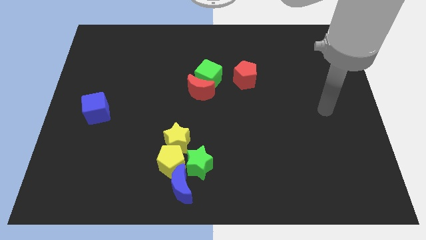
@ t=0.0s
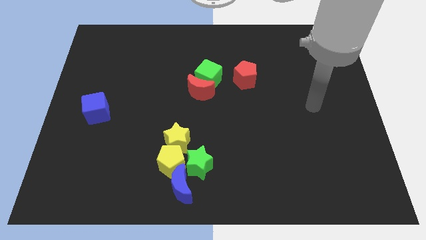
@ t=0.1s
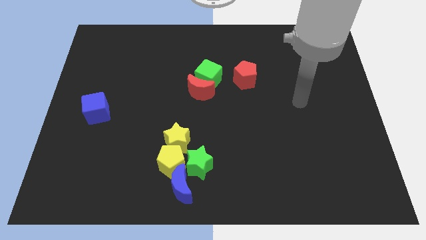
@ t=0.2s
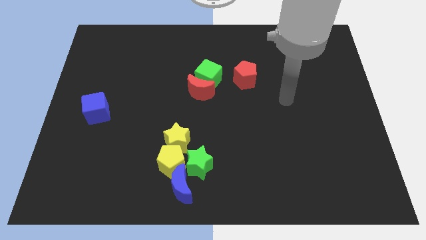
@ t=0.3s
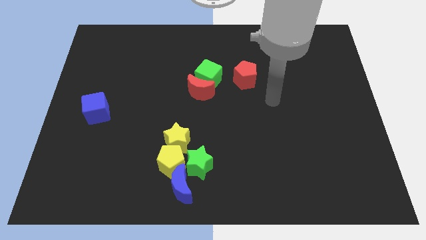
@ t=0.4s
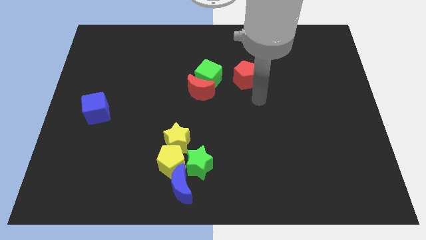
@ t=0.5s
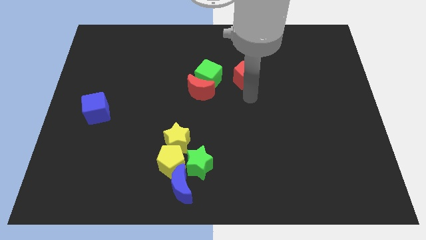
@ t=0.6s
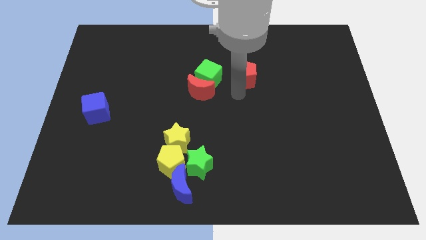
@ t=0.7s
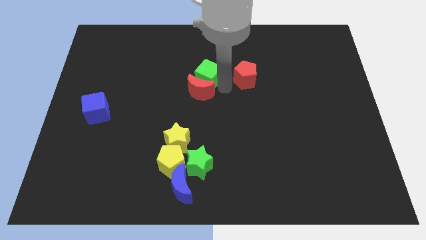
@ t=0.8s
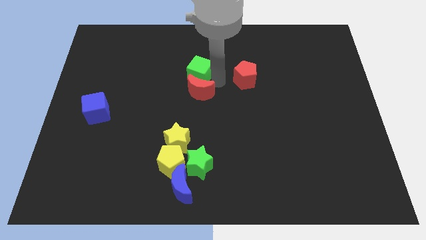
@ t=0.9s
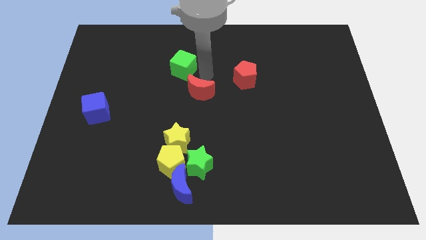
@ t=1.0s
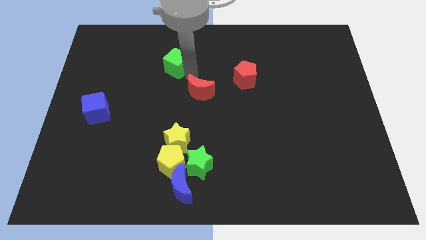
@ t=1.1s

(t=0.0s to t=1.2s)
separate the red moon from the green cube

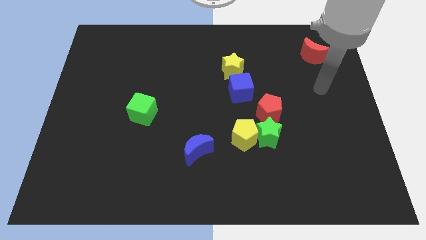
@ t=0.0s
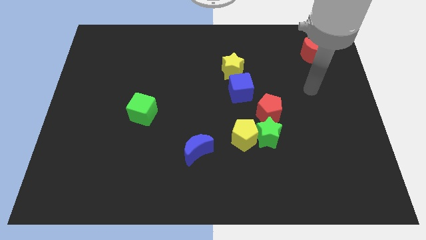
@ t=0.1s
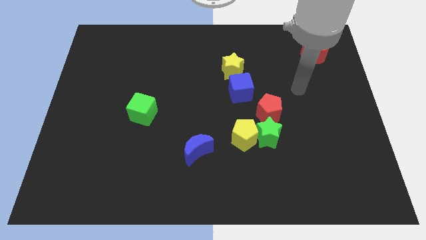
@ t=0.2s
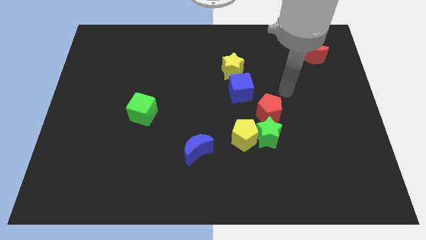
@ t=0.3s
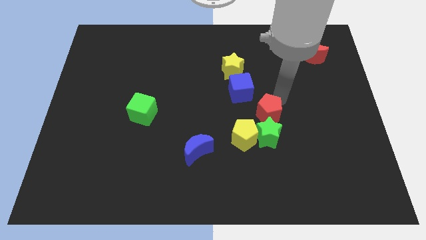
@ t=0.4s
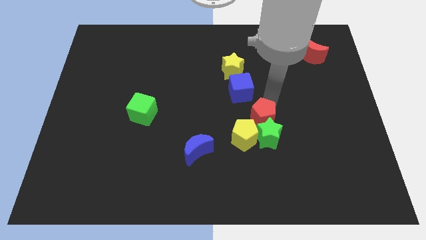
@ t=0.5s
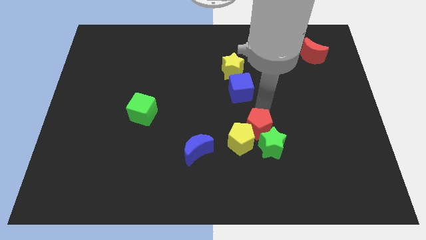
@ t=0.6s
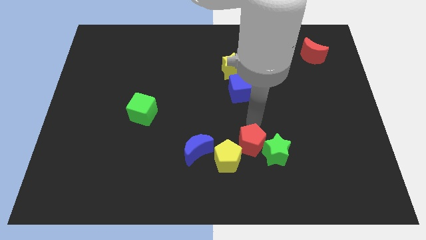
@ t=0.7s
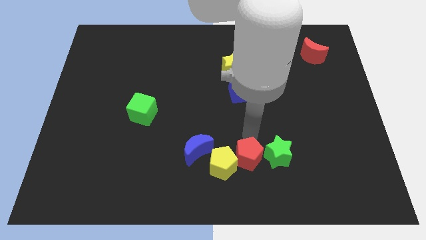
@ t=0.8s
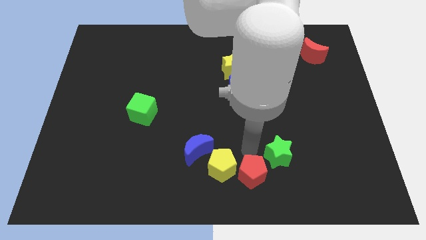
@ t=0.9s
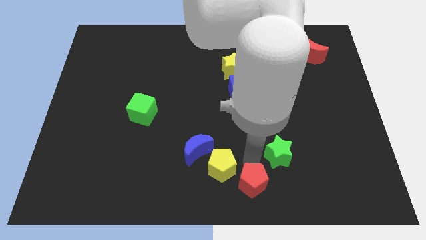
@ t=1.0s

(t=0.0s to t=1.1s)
pull the green star apart from the yellow pentagon and red pentagon

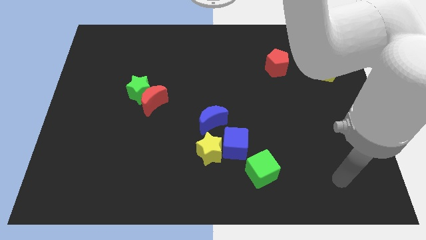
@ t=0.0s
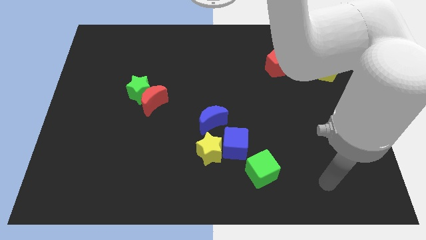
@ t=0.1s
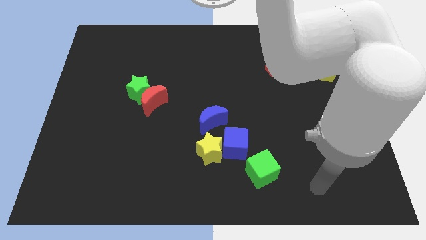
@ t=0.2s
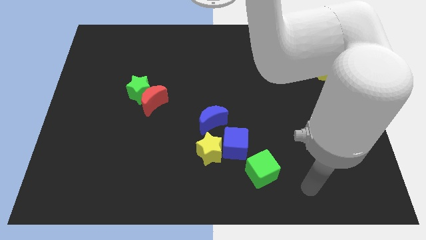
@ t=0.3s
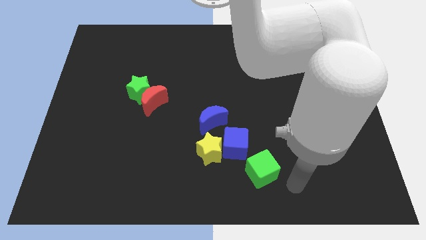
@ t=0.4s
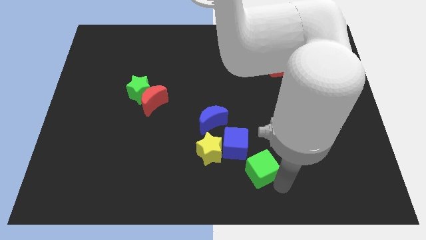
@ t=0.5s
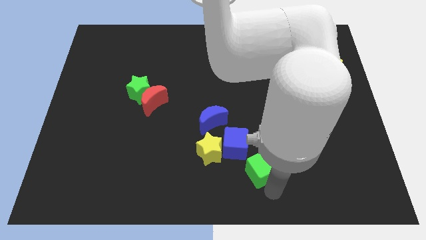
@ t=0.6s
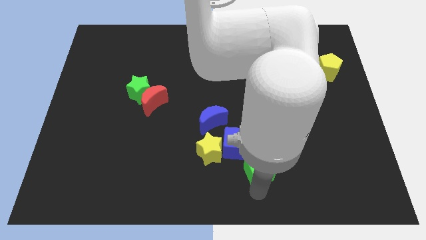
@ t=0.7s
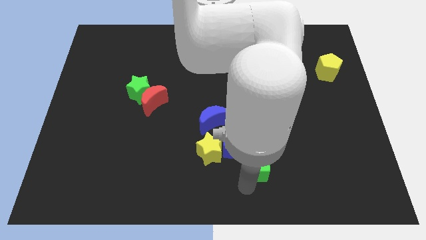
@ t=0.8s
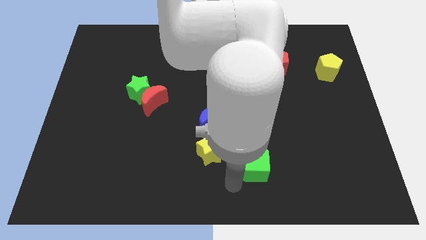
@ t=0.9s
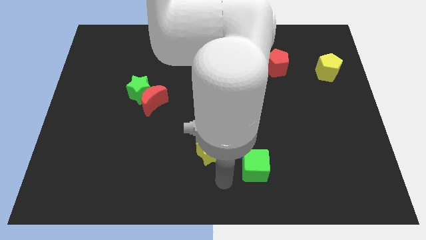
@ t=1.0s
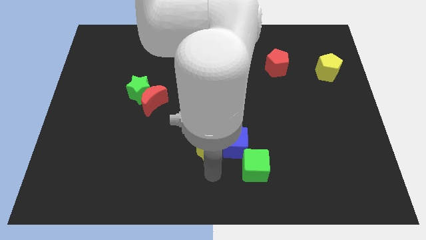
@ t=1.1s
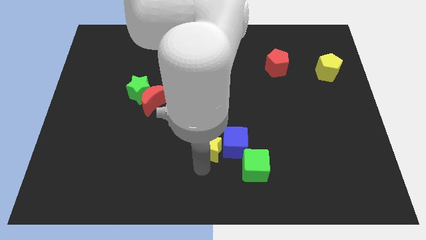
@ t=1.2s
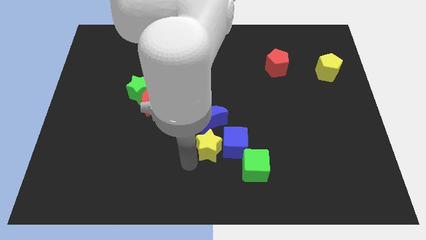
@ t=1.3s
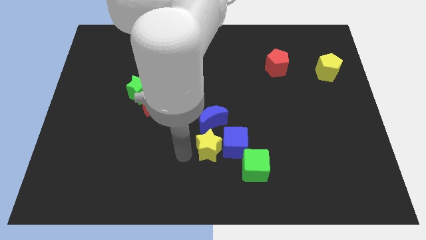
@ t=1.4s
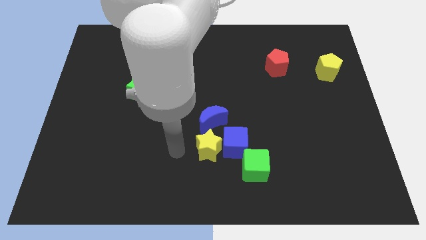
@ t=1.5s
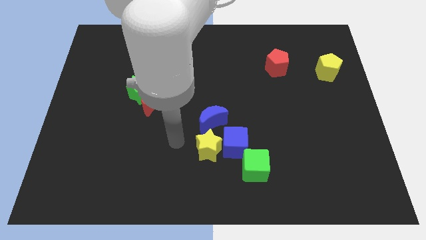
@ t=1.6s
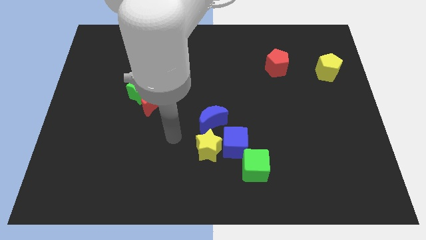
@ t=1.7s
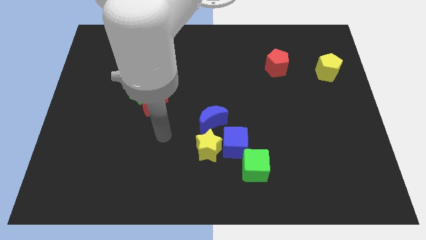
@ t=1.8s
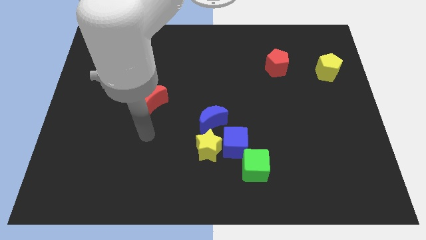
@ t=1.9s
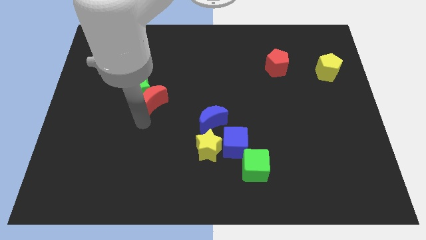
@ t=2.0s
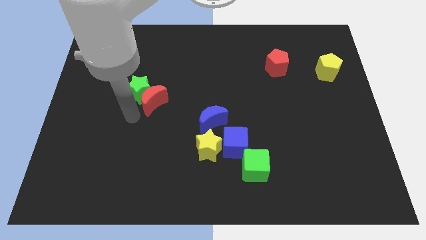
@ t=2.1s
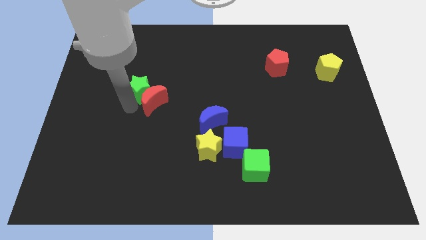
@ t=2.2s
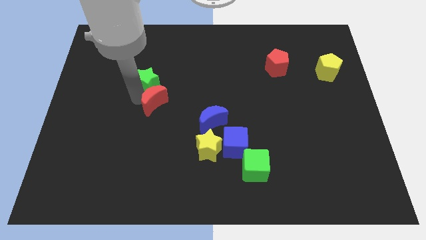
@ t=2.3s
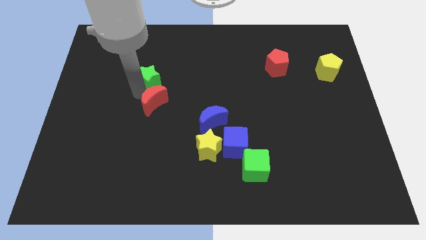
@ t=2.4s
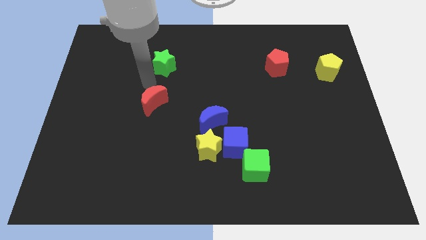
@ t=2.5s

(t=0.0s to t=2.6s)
pull the red moon apart from the green star

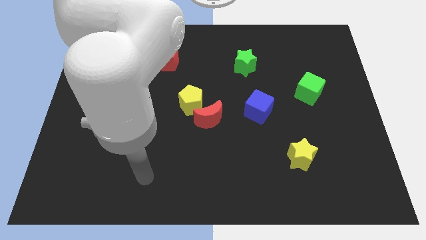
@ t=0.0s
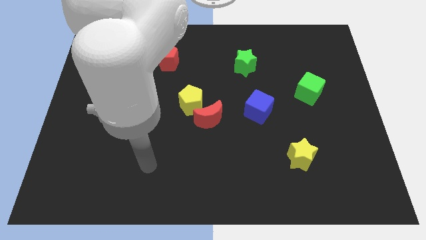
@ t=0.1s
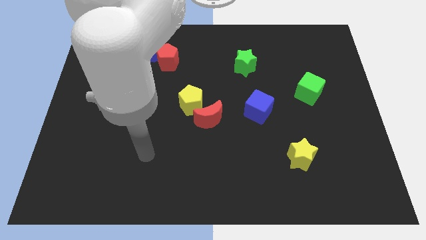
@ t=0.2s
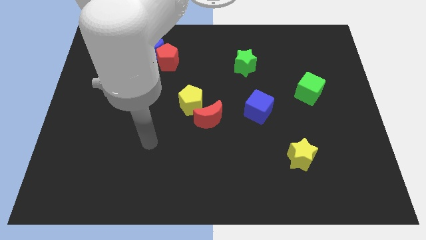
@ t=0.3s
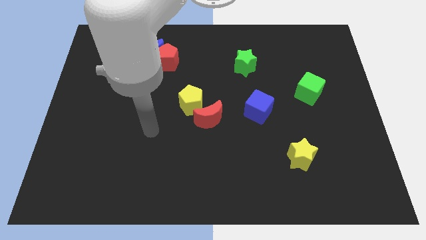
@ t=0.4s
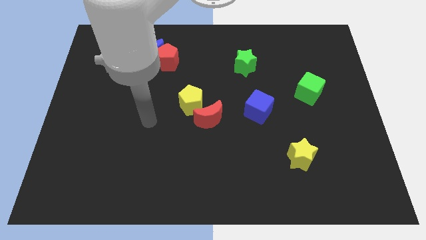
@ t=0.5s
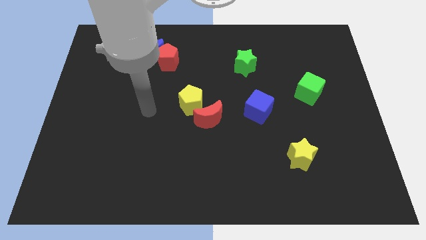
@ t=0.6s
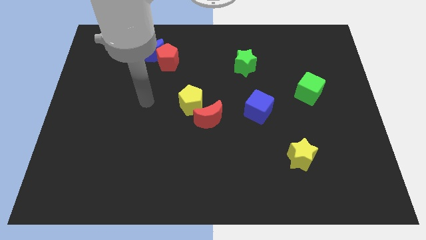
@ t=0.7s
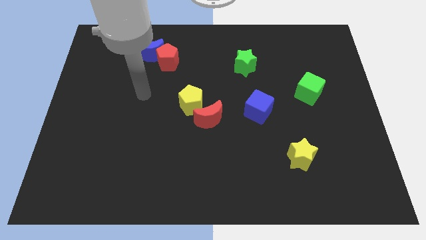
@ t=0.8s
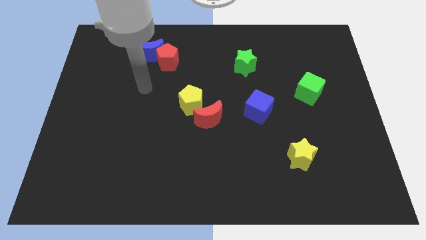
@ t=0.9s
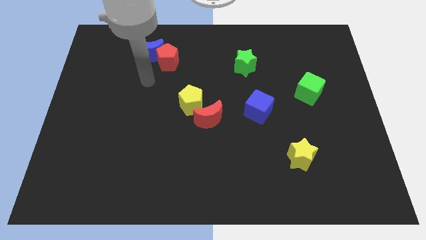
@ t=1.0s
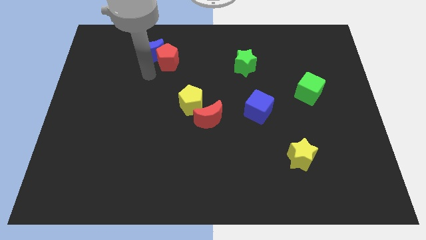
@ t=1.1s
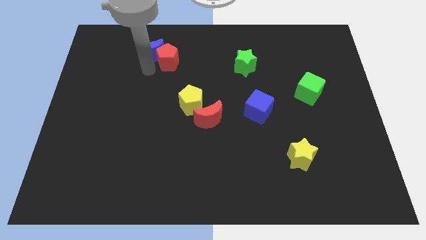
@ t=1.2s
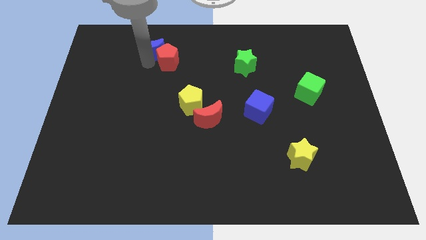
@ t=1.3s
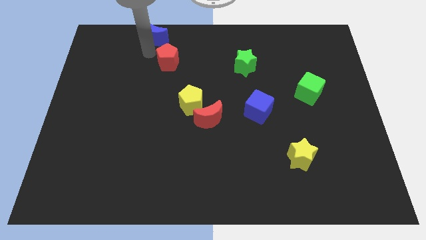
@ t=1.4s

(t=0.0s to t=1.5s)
separate the red pentagon from the blue moon

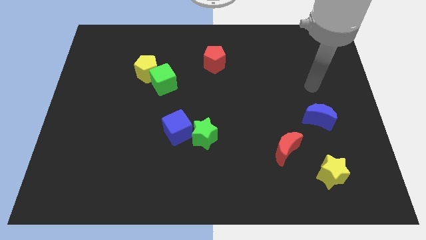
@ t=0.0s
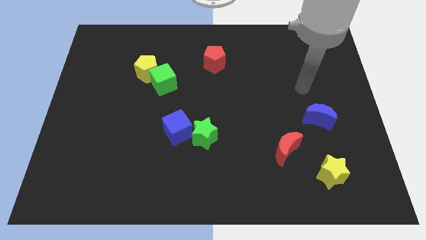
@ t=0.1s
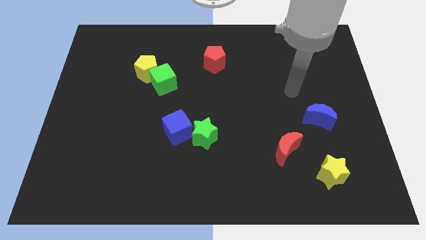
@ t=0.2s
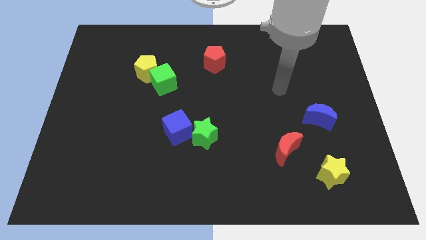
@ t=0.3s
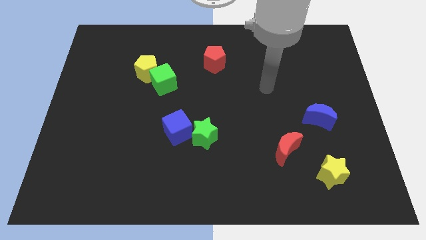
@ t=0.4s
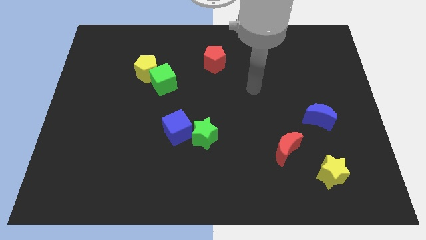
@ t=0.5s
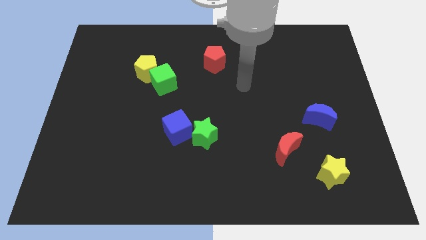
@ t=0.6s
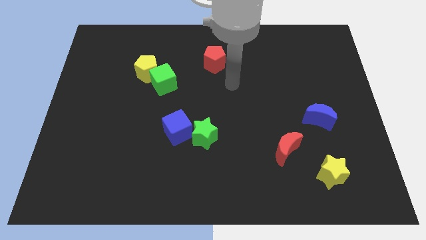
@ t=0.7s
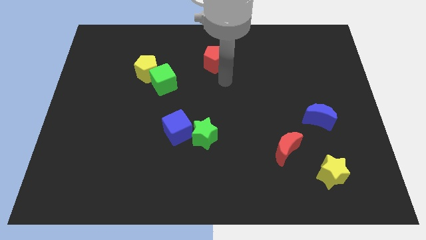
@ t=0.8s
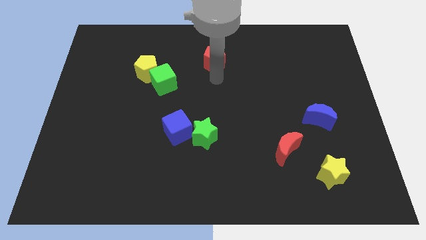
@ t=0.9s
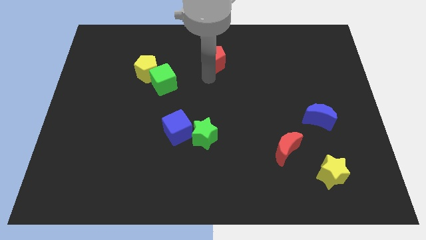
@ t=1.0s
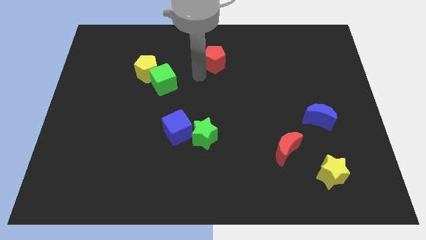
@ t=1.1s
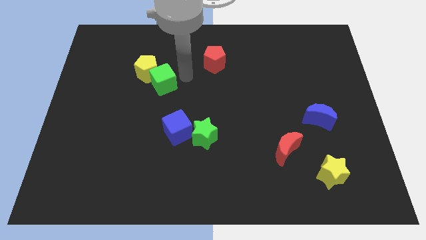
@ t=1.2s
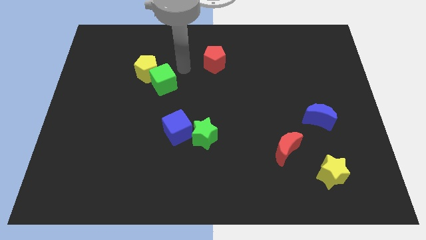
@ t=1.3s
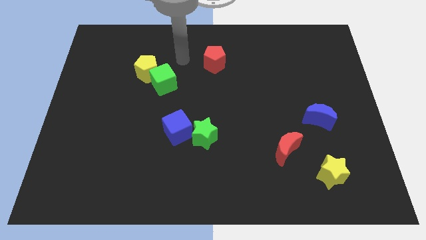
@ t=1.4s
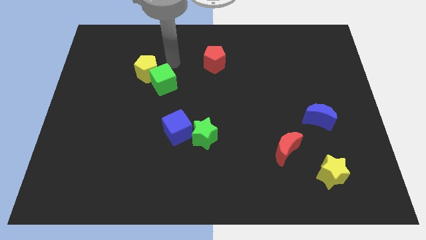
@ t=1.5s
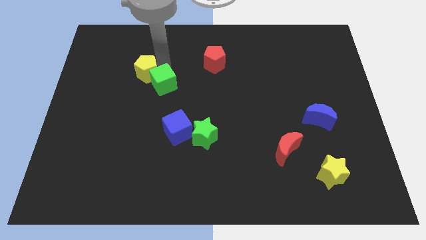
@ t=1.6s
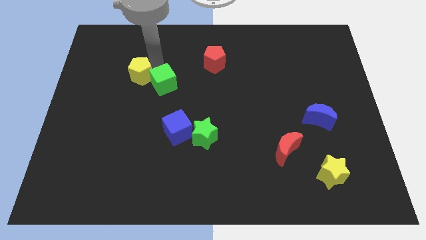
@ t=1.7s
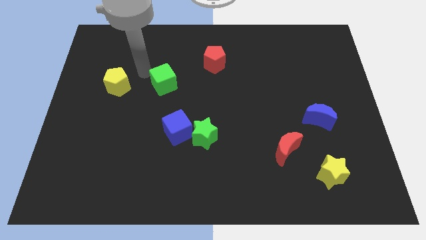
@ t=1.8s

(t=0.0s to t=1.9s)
separate the green cube from the yellow pentagon

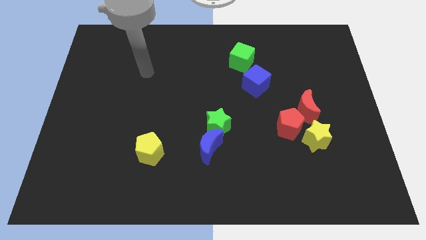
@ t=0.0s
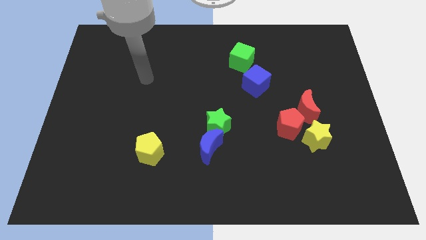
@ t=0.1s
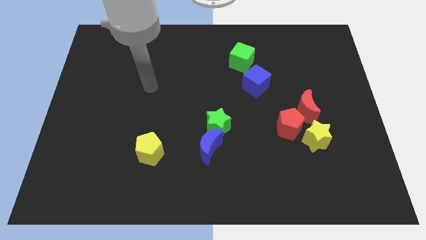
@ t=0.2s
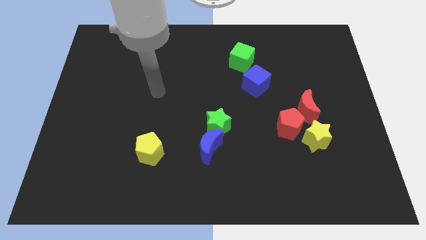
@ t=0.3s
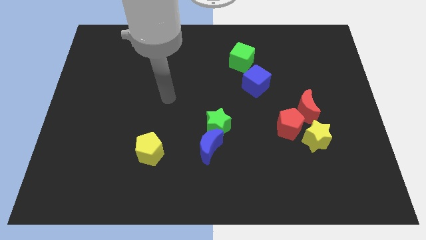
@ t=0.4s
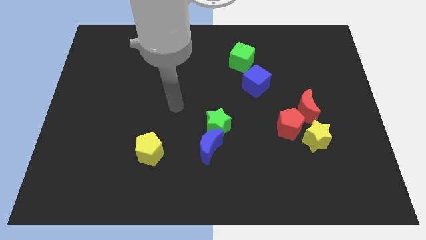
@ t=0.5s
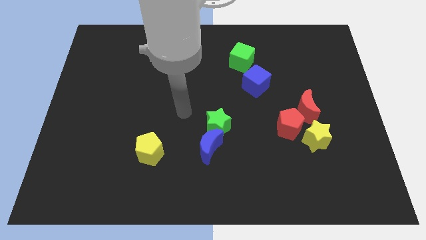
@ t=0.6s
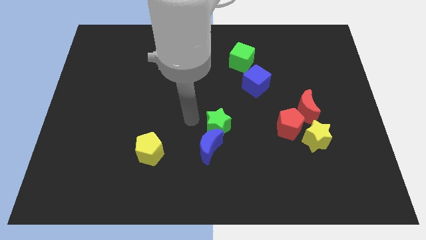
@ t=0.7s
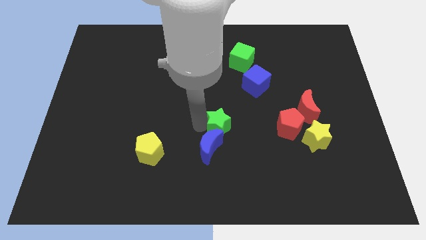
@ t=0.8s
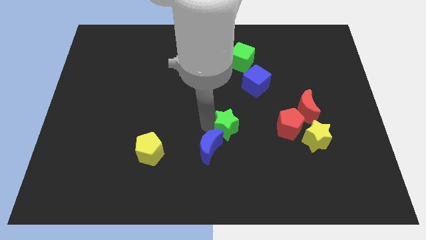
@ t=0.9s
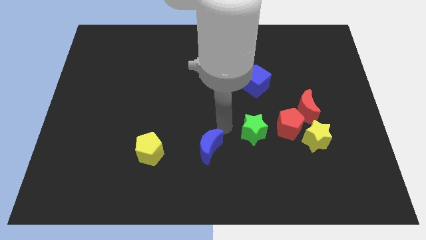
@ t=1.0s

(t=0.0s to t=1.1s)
move the blue moon away from the green star
